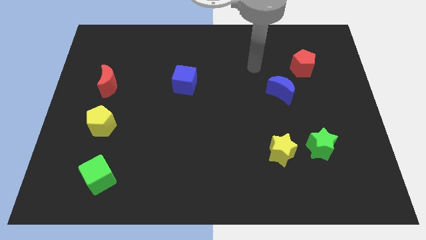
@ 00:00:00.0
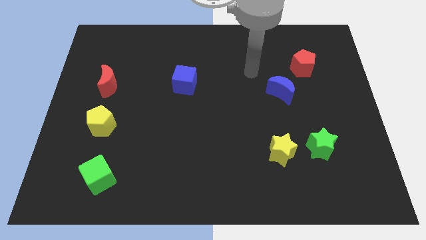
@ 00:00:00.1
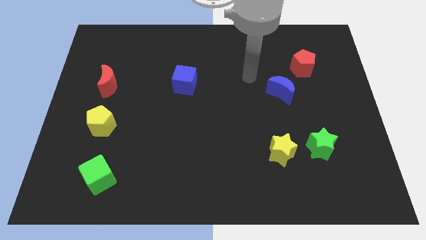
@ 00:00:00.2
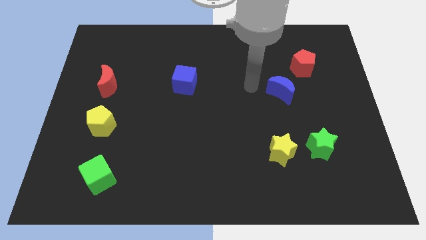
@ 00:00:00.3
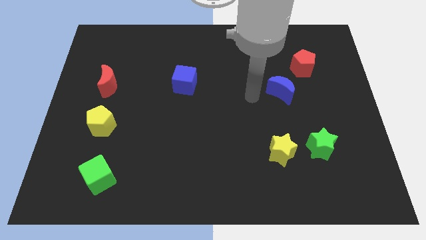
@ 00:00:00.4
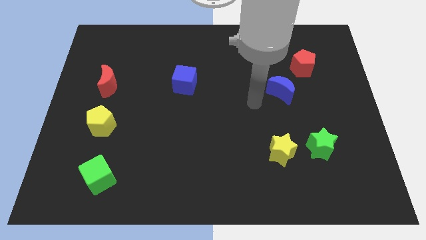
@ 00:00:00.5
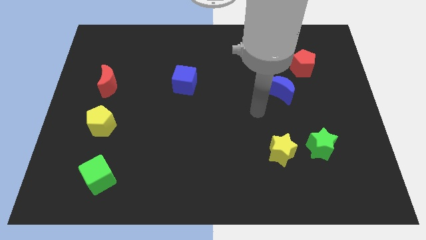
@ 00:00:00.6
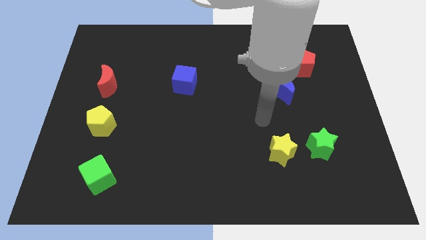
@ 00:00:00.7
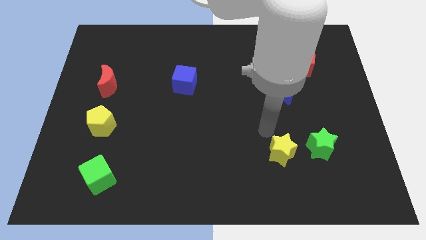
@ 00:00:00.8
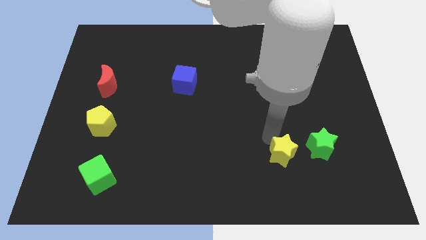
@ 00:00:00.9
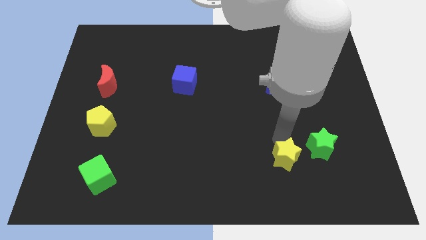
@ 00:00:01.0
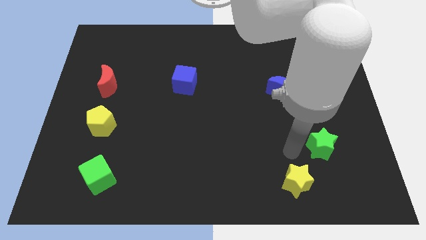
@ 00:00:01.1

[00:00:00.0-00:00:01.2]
move the green star away from the yellow star

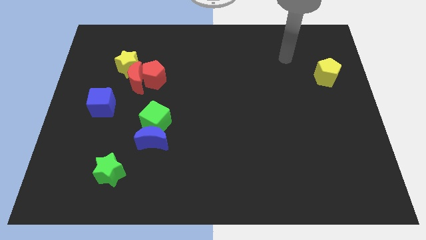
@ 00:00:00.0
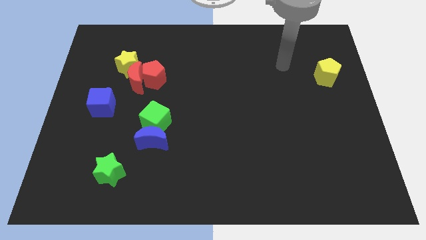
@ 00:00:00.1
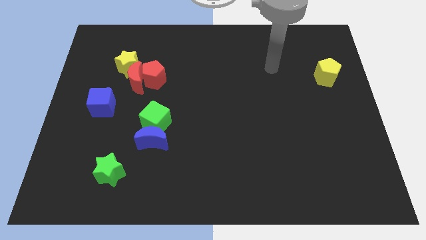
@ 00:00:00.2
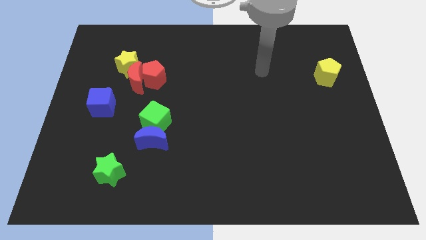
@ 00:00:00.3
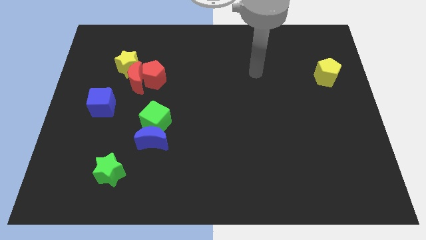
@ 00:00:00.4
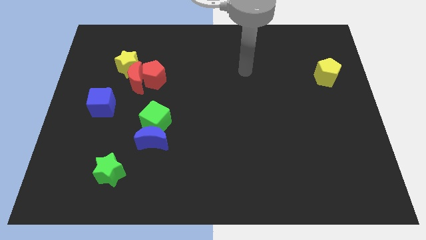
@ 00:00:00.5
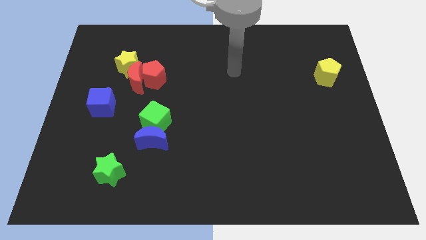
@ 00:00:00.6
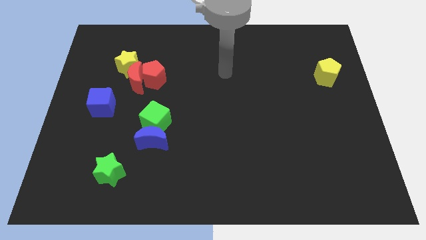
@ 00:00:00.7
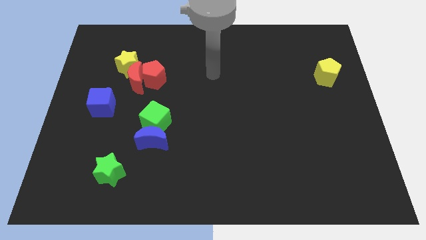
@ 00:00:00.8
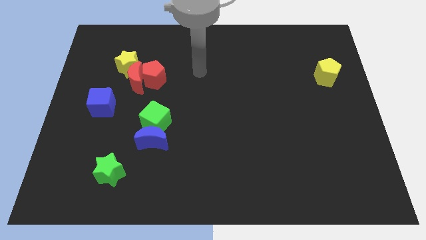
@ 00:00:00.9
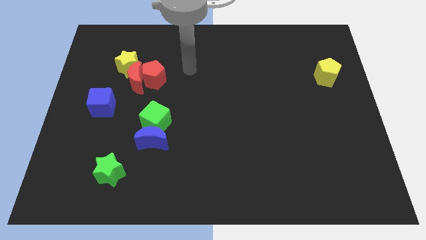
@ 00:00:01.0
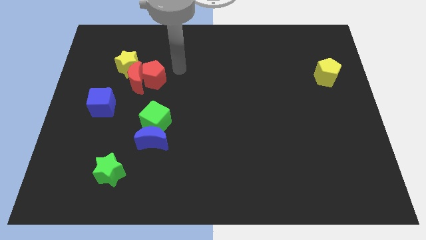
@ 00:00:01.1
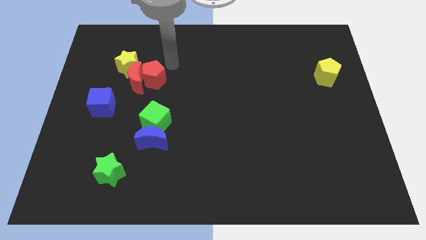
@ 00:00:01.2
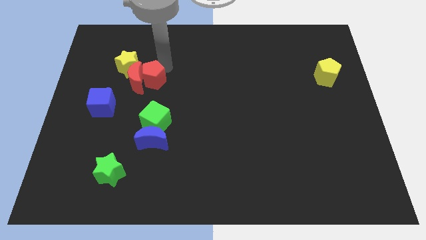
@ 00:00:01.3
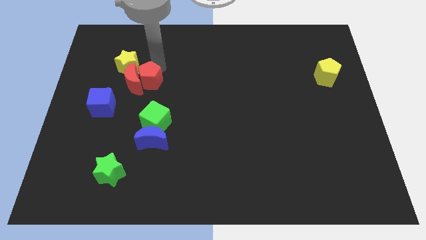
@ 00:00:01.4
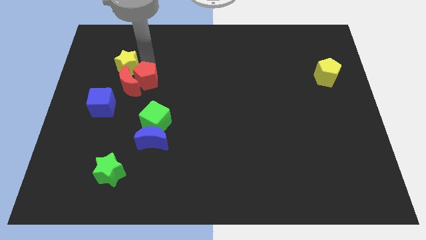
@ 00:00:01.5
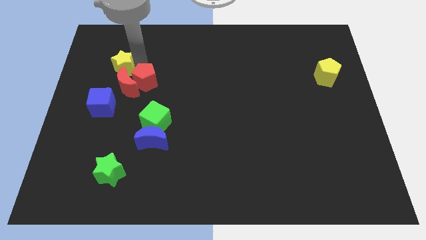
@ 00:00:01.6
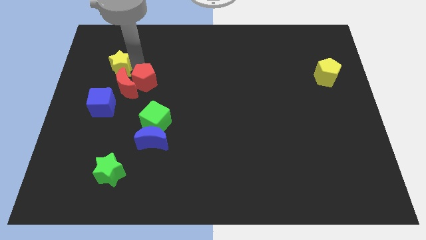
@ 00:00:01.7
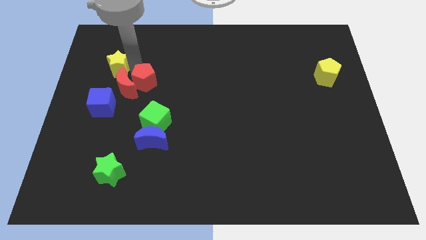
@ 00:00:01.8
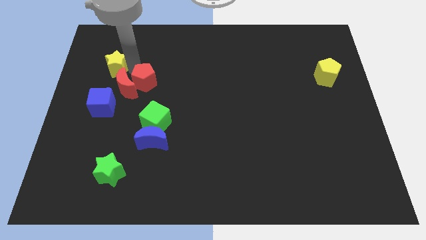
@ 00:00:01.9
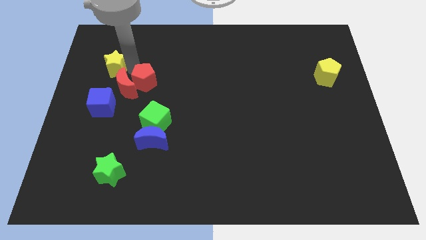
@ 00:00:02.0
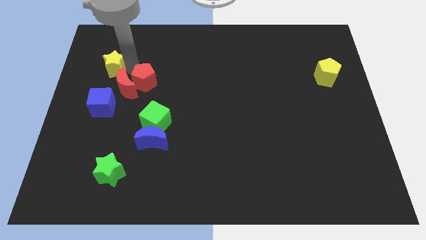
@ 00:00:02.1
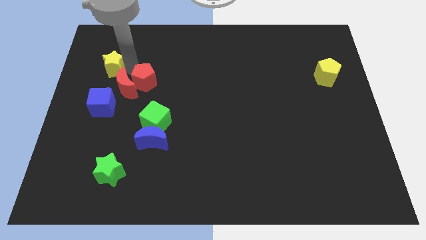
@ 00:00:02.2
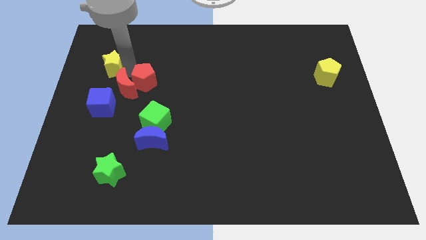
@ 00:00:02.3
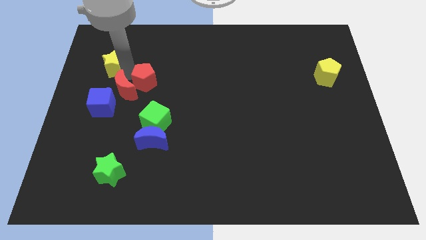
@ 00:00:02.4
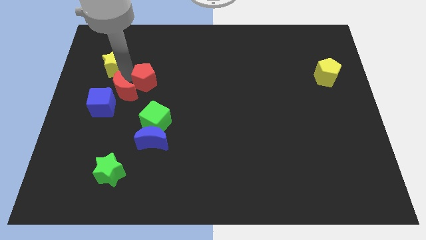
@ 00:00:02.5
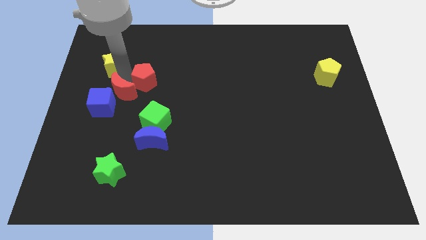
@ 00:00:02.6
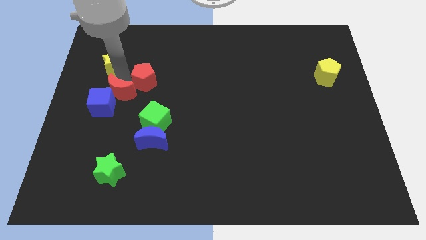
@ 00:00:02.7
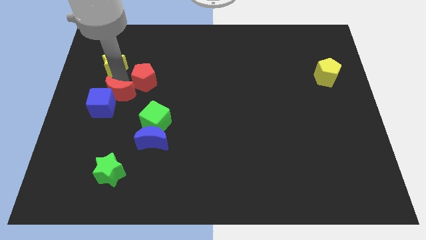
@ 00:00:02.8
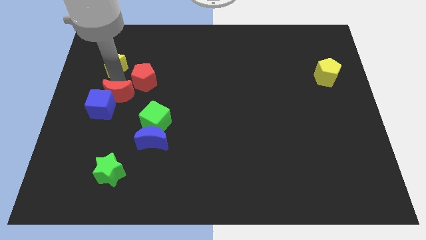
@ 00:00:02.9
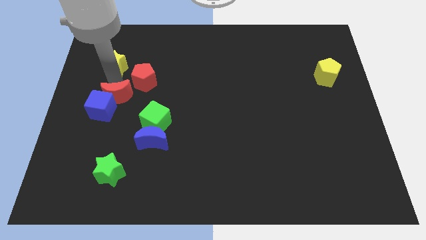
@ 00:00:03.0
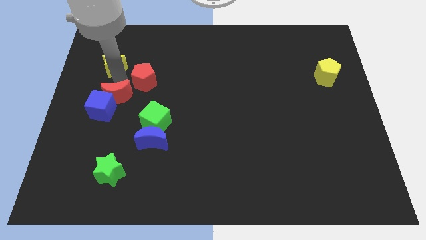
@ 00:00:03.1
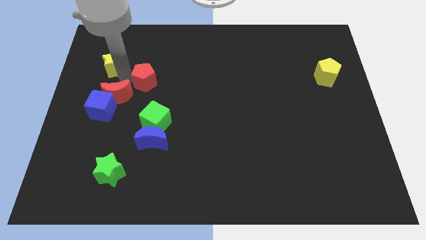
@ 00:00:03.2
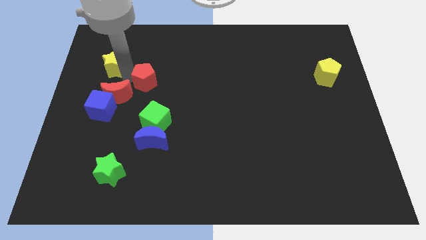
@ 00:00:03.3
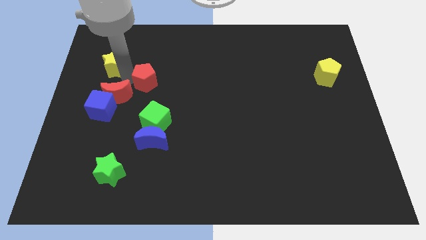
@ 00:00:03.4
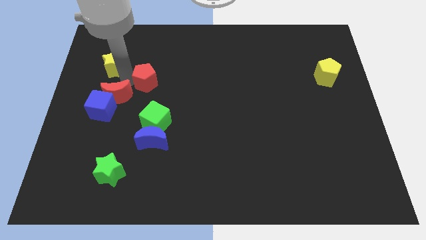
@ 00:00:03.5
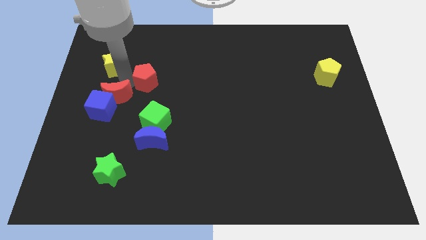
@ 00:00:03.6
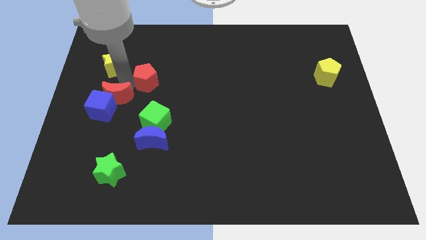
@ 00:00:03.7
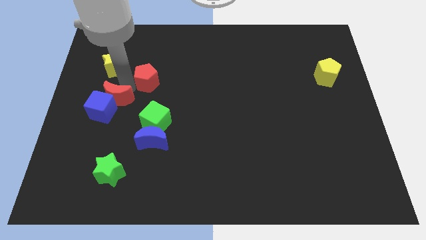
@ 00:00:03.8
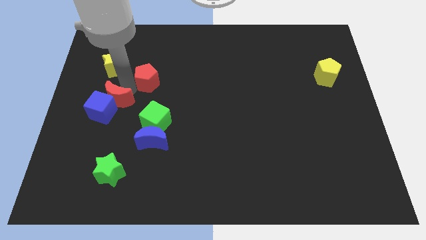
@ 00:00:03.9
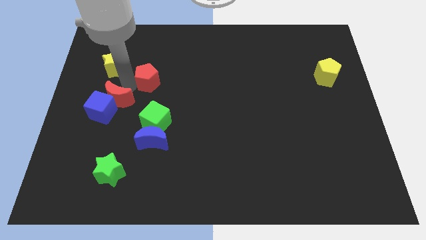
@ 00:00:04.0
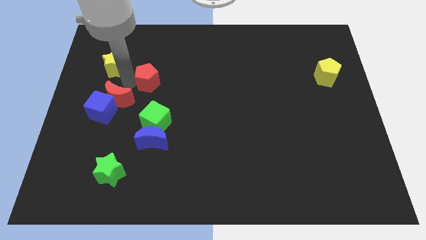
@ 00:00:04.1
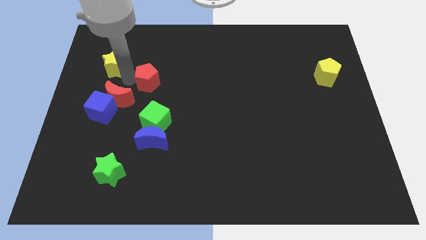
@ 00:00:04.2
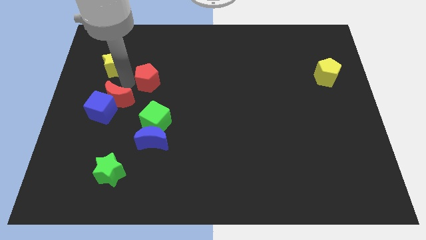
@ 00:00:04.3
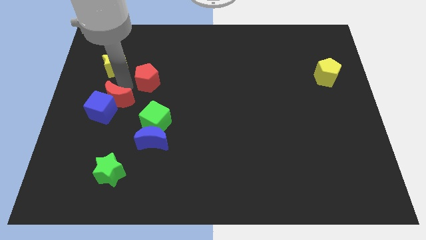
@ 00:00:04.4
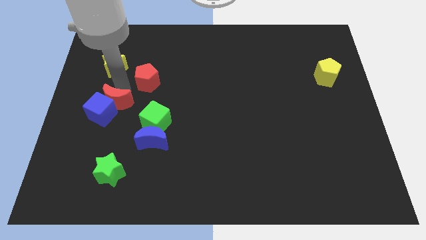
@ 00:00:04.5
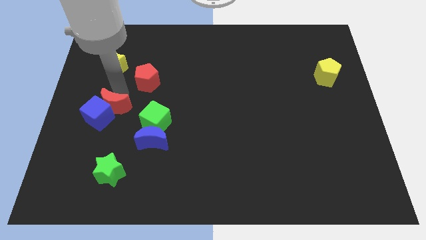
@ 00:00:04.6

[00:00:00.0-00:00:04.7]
separate the red moon from the red pentagon and yellow star

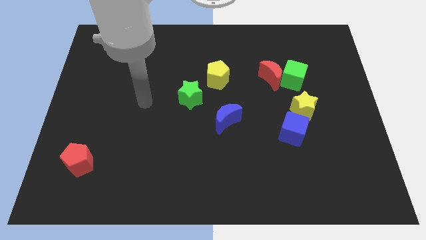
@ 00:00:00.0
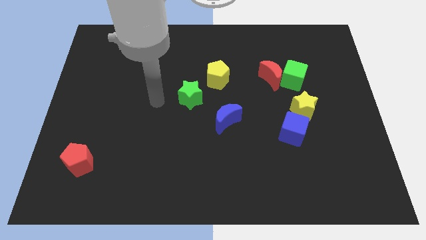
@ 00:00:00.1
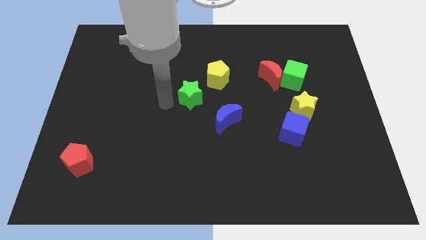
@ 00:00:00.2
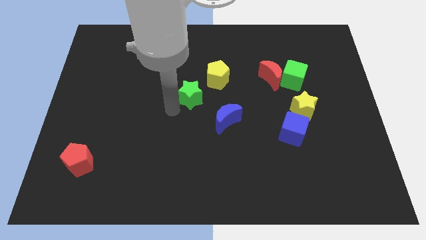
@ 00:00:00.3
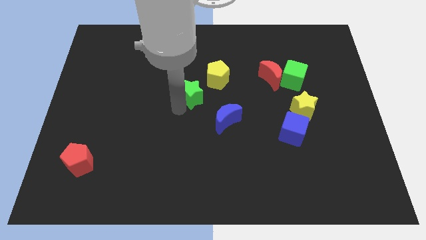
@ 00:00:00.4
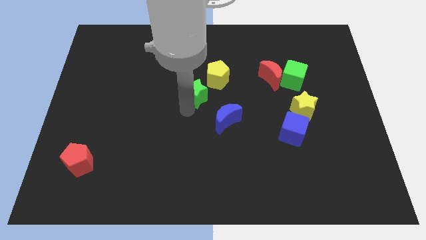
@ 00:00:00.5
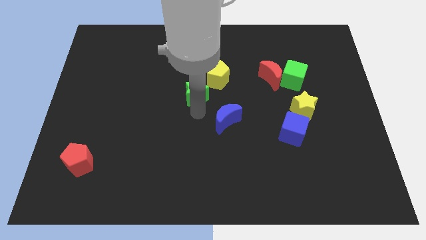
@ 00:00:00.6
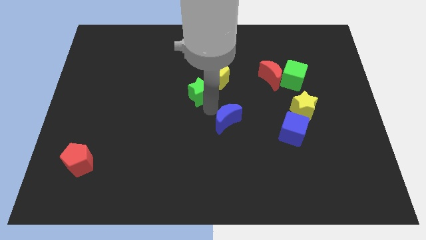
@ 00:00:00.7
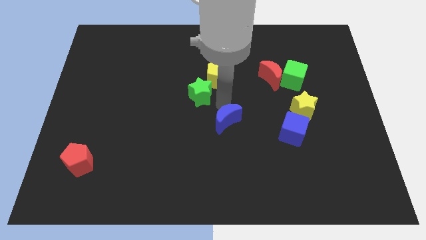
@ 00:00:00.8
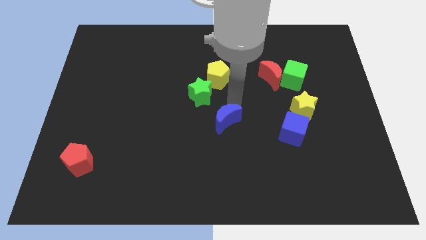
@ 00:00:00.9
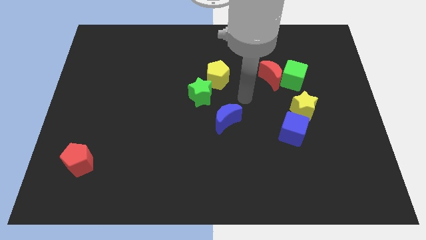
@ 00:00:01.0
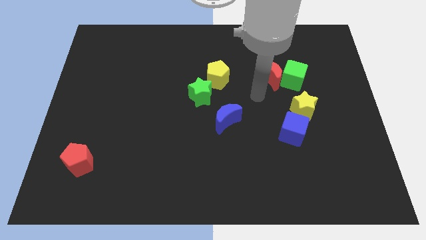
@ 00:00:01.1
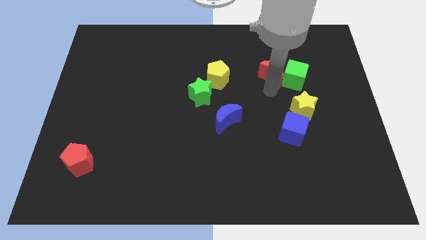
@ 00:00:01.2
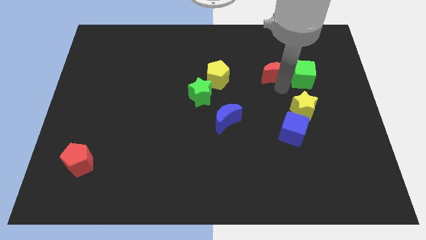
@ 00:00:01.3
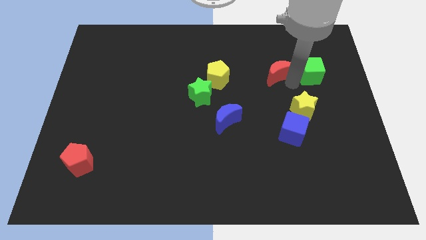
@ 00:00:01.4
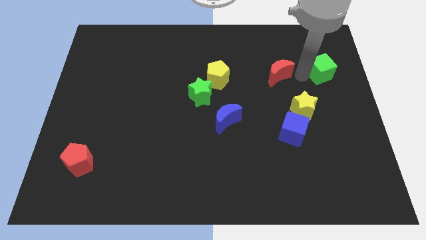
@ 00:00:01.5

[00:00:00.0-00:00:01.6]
pull the red moon apart from the green cube

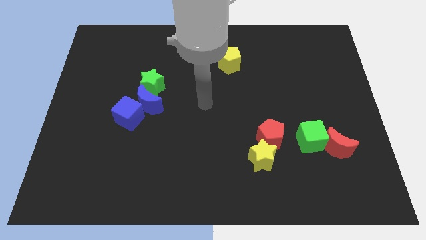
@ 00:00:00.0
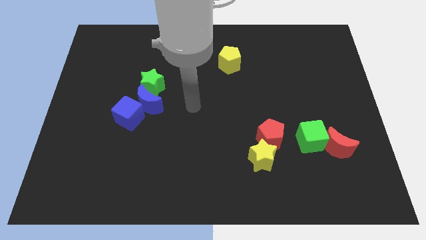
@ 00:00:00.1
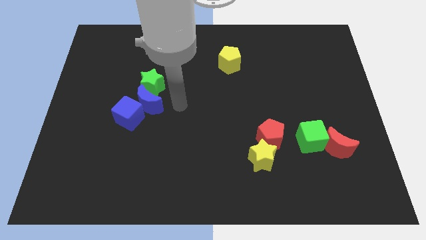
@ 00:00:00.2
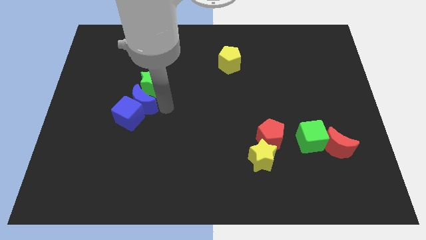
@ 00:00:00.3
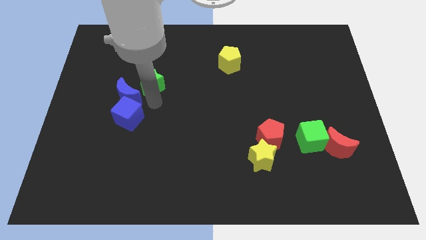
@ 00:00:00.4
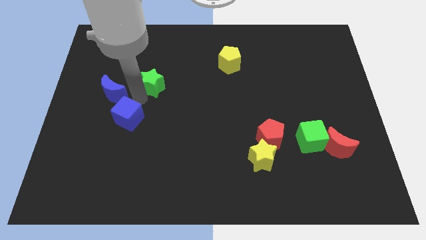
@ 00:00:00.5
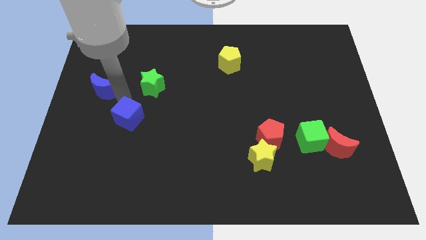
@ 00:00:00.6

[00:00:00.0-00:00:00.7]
pull the blue cube apart from the blue moon

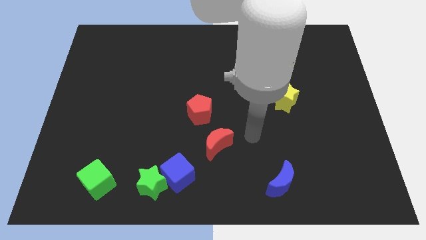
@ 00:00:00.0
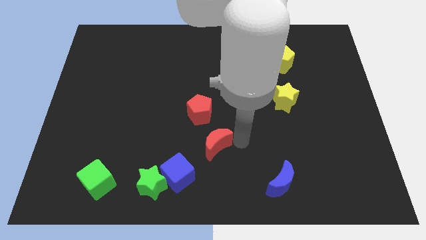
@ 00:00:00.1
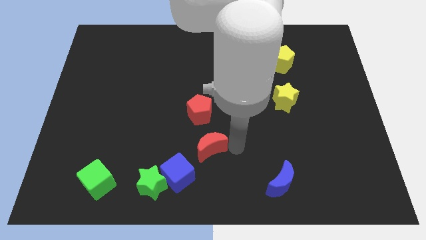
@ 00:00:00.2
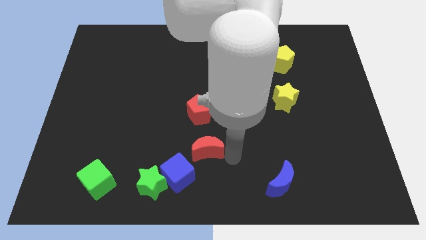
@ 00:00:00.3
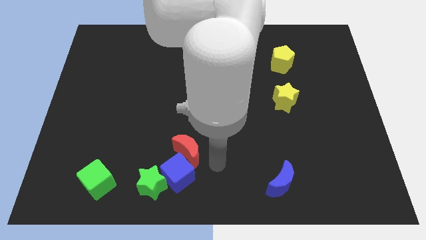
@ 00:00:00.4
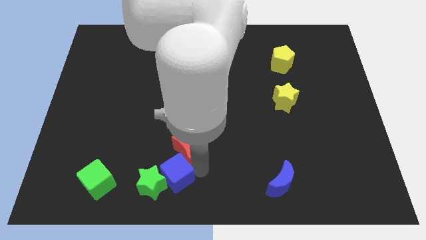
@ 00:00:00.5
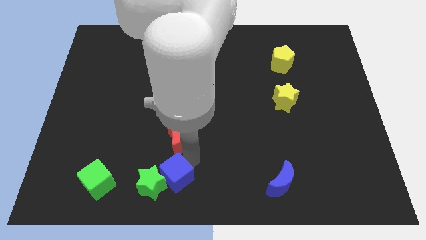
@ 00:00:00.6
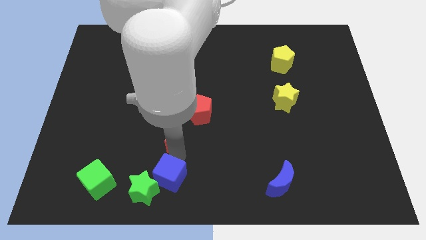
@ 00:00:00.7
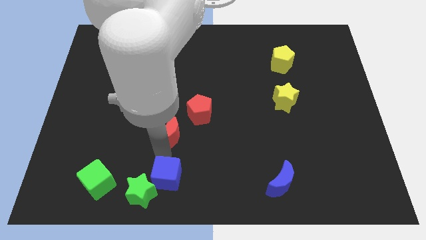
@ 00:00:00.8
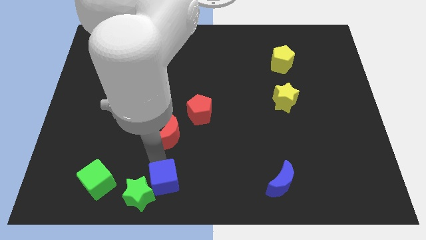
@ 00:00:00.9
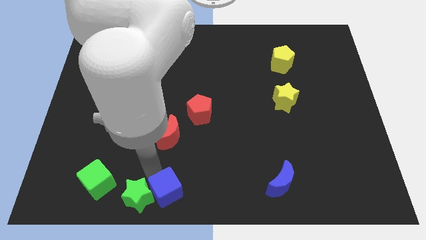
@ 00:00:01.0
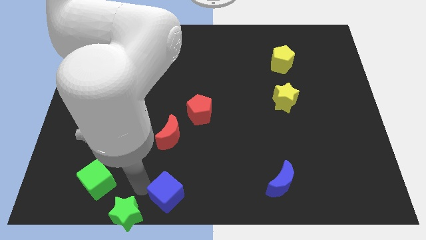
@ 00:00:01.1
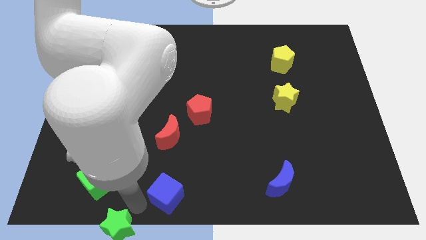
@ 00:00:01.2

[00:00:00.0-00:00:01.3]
move the blue cube away from the green star
